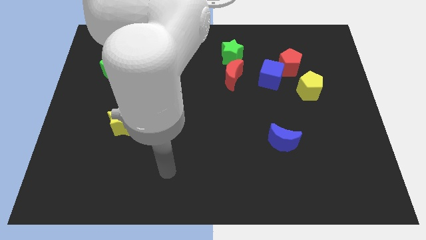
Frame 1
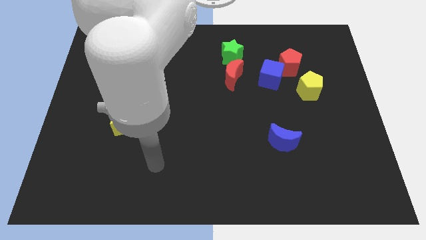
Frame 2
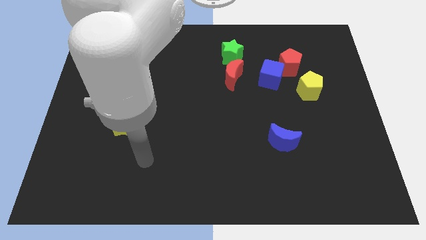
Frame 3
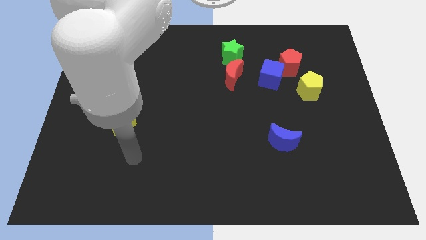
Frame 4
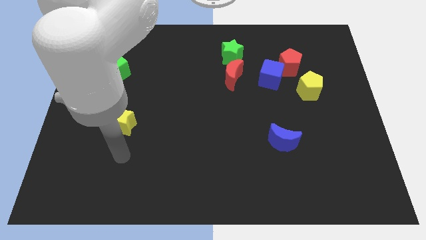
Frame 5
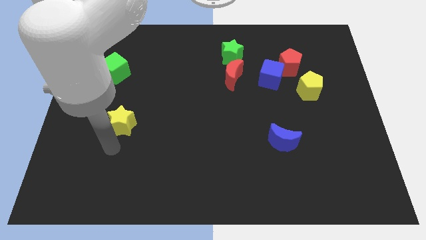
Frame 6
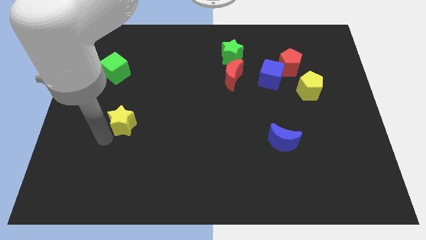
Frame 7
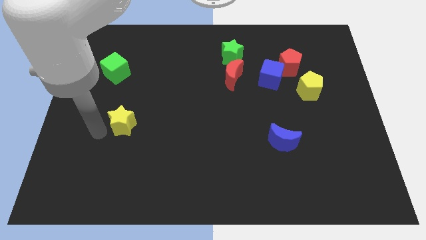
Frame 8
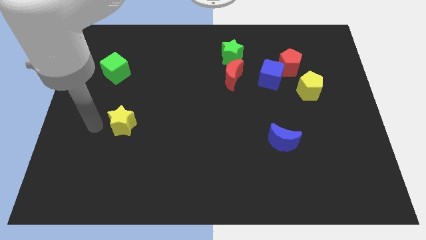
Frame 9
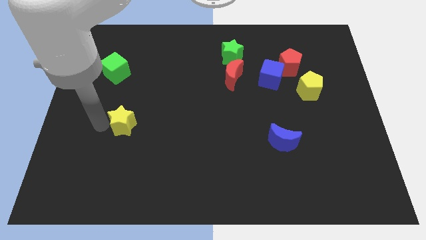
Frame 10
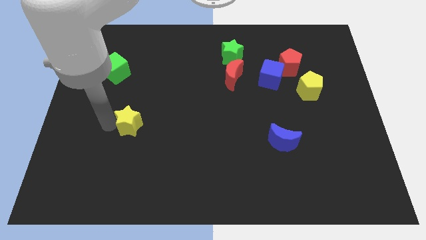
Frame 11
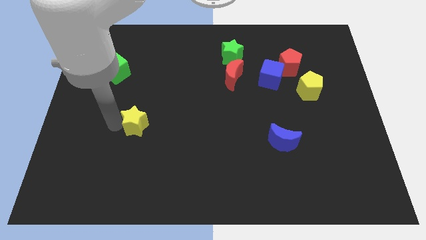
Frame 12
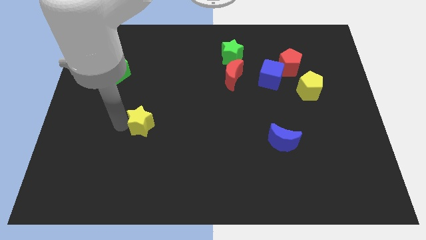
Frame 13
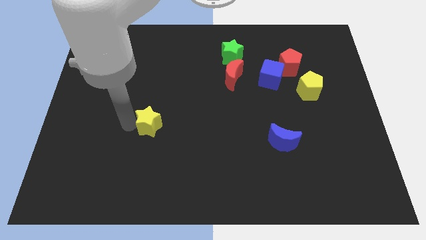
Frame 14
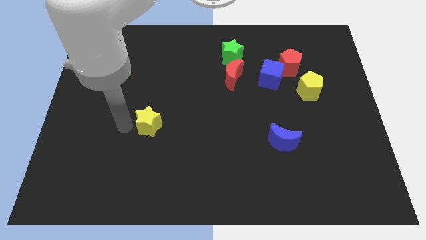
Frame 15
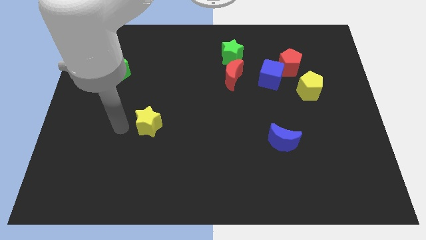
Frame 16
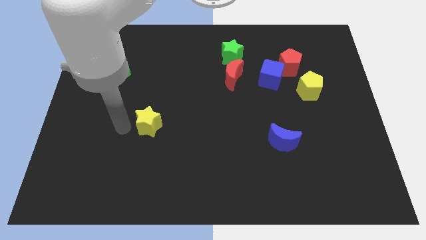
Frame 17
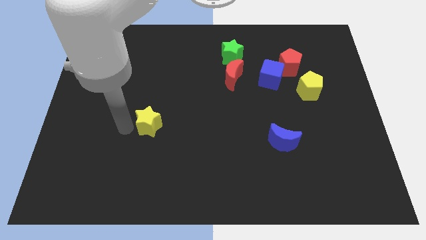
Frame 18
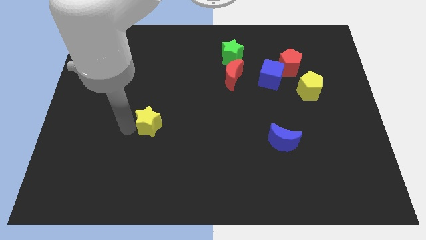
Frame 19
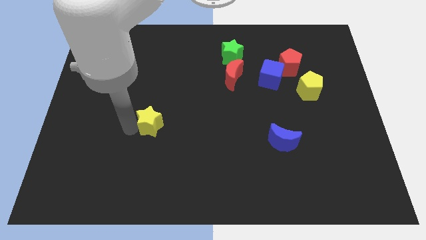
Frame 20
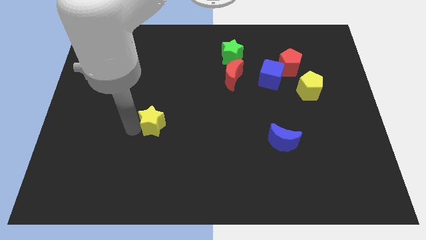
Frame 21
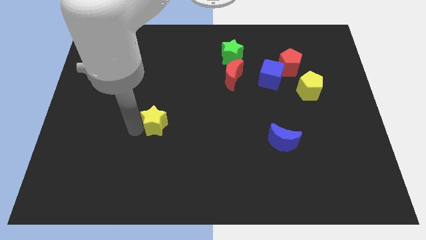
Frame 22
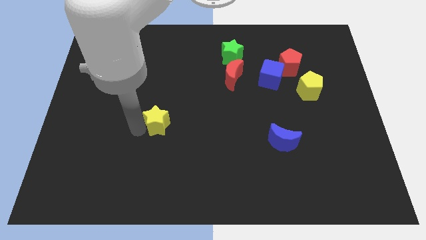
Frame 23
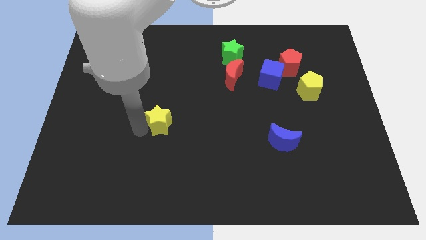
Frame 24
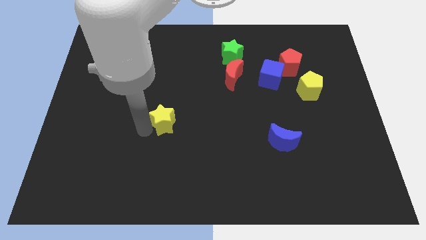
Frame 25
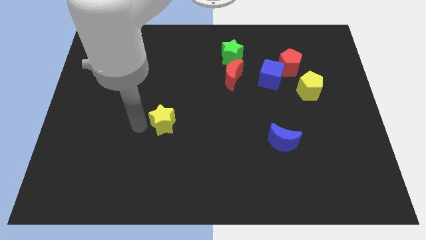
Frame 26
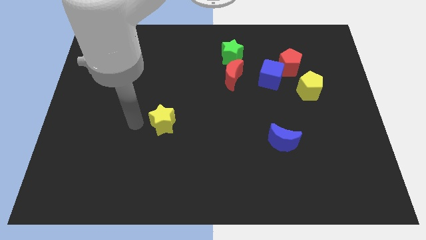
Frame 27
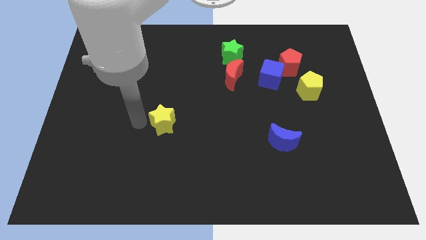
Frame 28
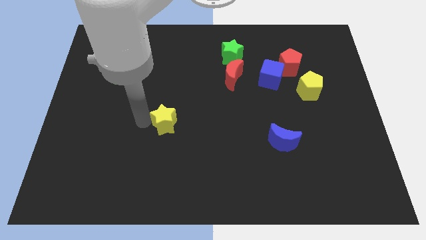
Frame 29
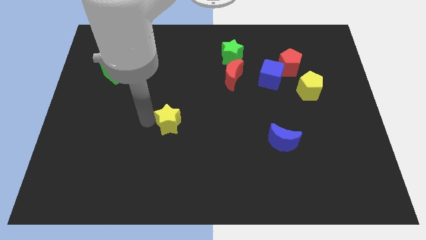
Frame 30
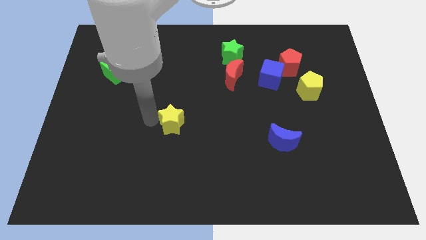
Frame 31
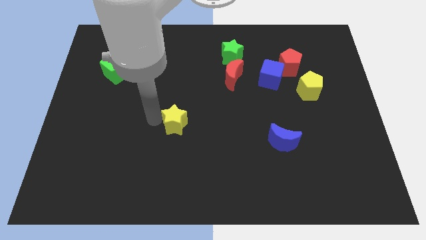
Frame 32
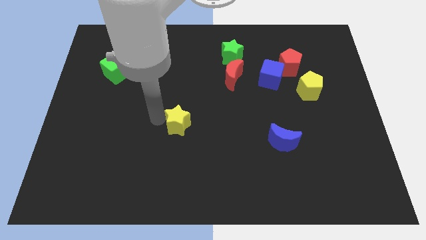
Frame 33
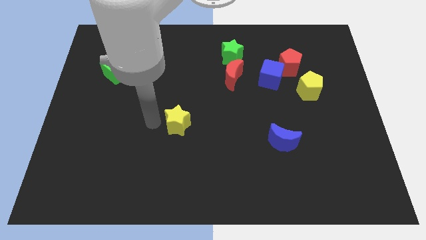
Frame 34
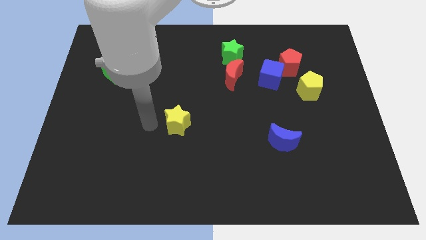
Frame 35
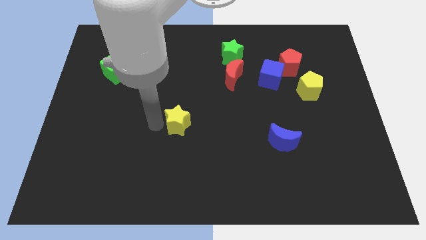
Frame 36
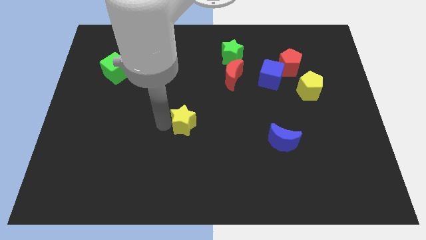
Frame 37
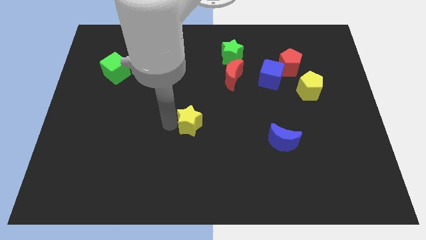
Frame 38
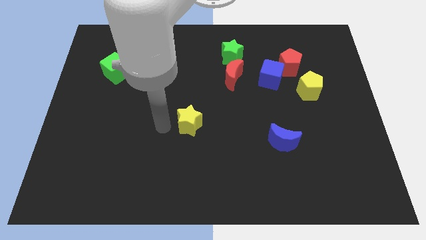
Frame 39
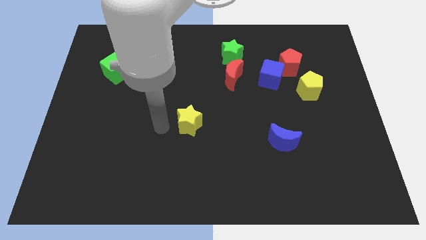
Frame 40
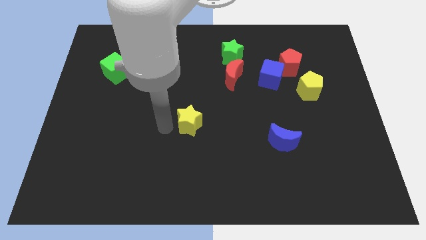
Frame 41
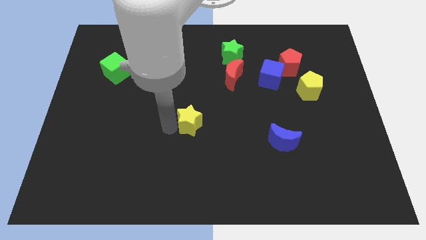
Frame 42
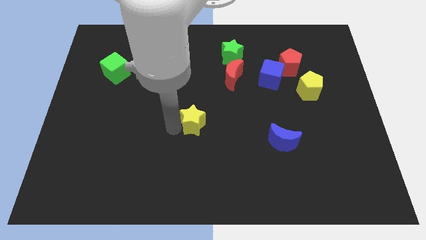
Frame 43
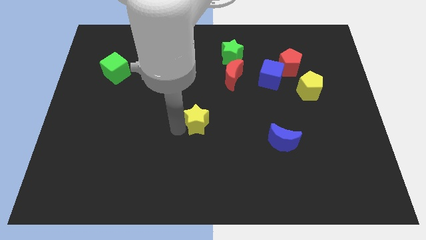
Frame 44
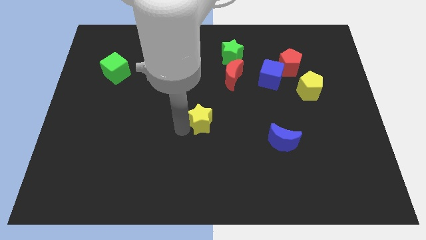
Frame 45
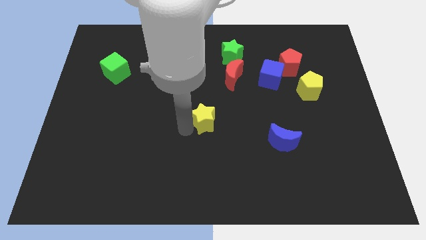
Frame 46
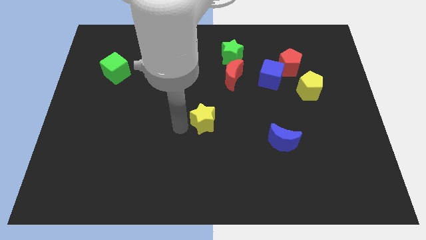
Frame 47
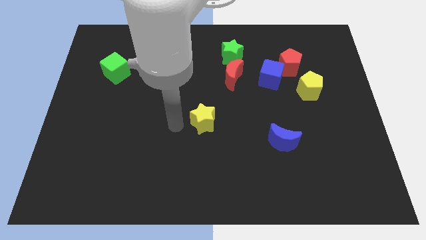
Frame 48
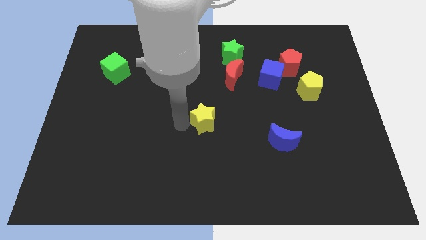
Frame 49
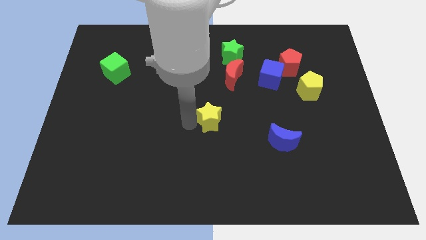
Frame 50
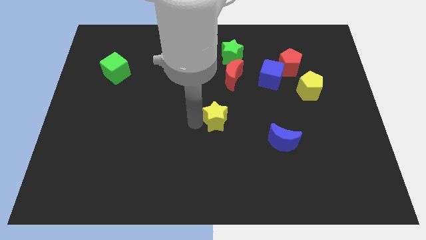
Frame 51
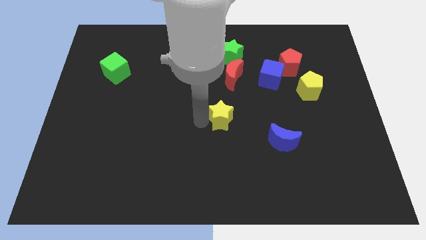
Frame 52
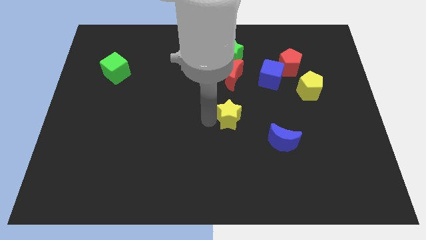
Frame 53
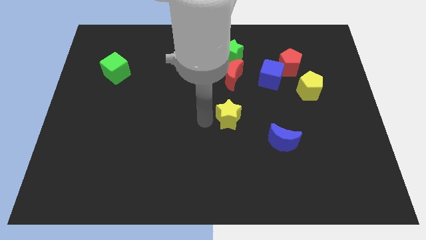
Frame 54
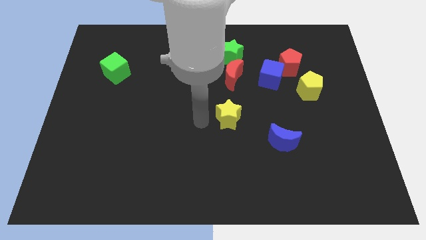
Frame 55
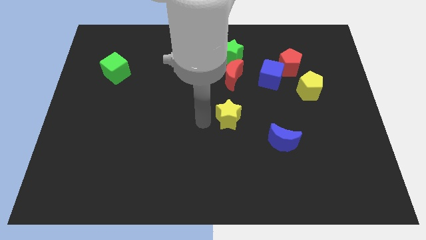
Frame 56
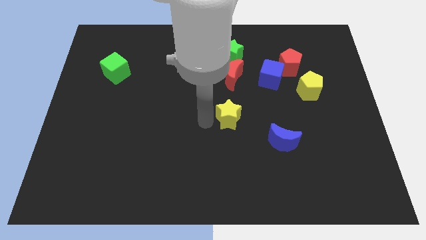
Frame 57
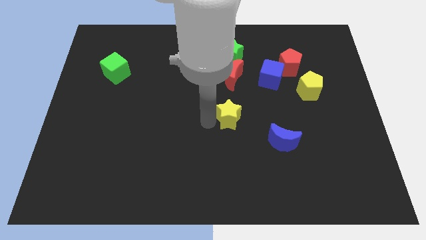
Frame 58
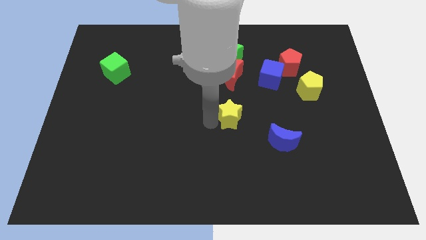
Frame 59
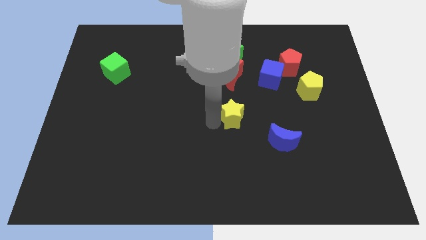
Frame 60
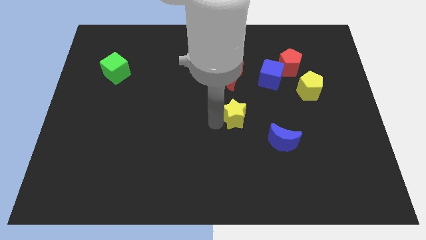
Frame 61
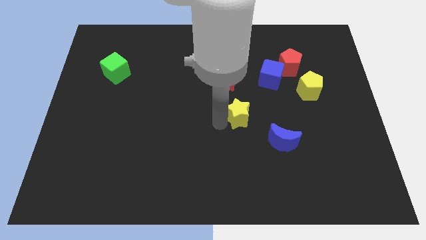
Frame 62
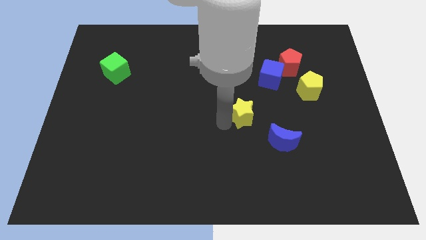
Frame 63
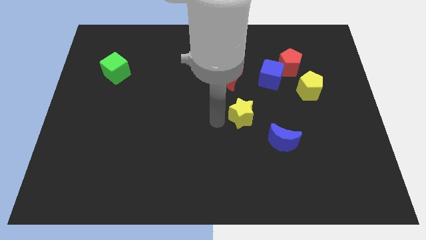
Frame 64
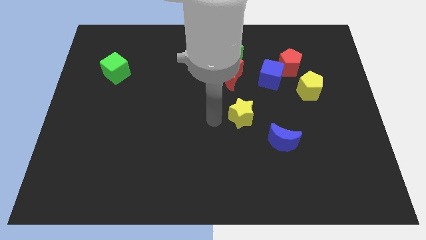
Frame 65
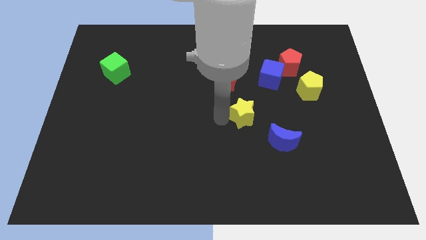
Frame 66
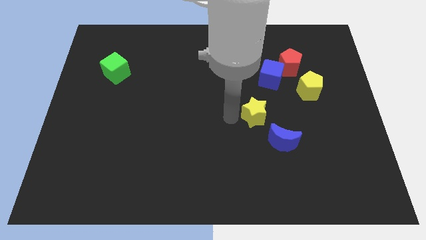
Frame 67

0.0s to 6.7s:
move the yellow star to the bottom side of the blue cube

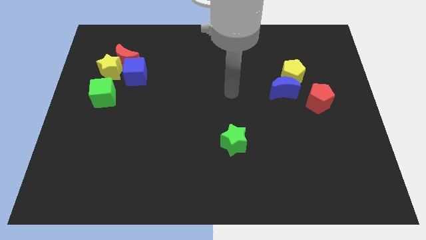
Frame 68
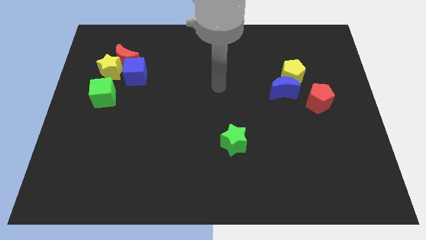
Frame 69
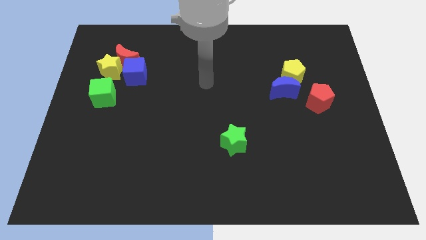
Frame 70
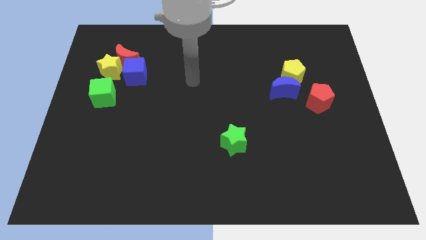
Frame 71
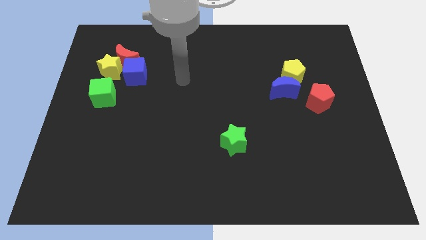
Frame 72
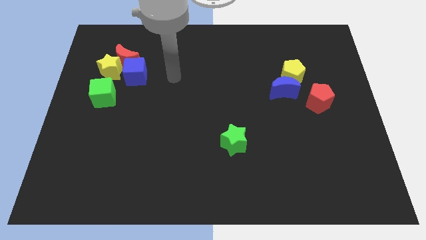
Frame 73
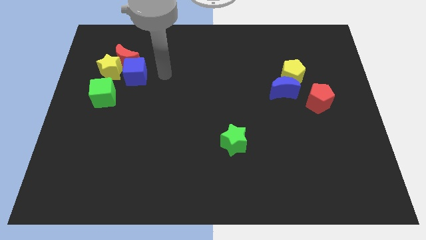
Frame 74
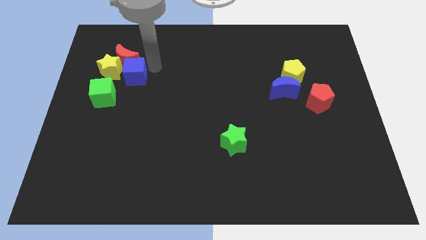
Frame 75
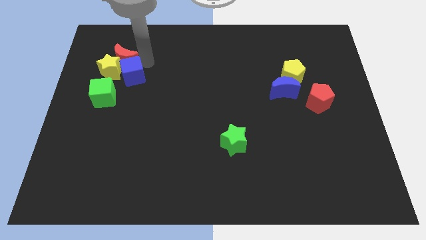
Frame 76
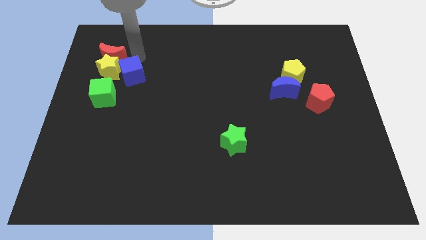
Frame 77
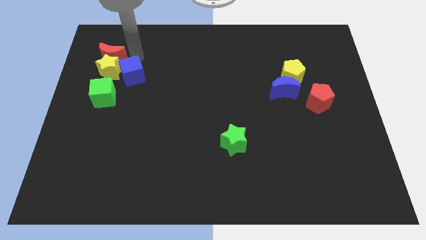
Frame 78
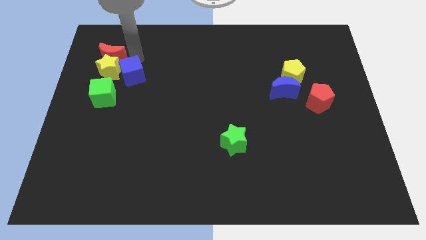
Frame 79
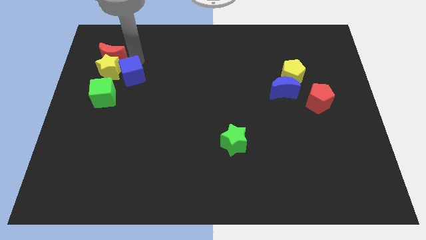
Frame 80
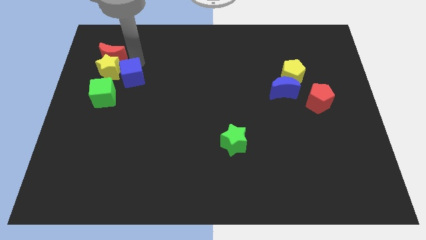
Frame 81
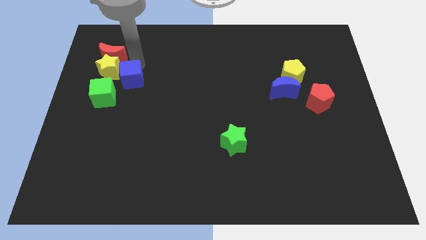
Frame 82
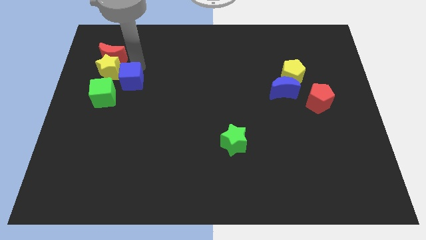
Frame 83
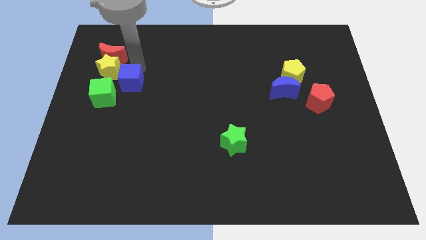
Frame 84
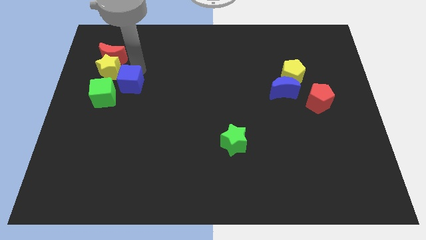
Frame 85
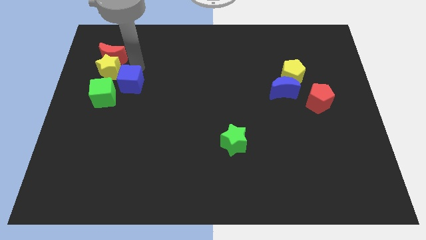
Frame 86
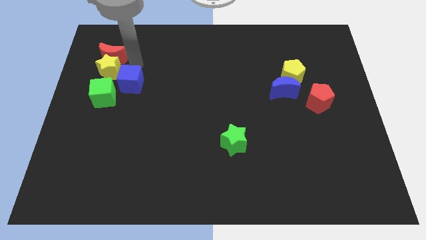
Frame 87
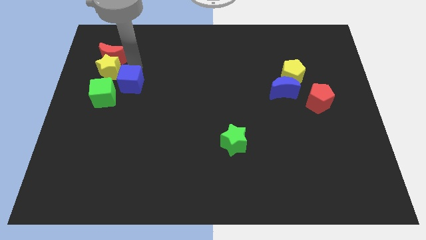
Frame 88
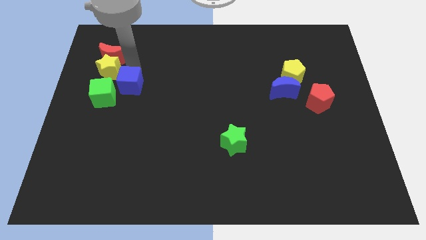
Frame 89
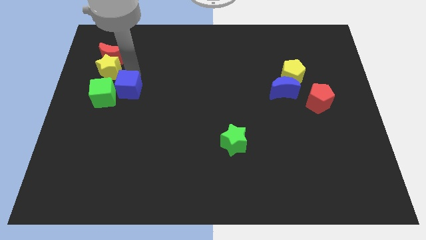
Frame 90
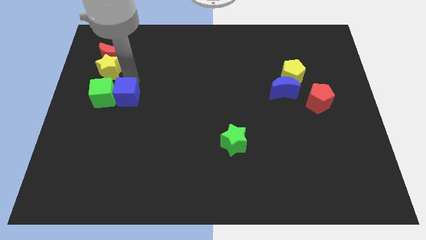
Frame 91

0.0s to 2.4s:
push the blue cube diagonally down and to the right of the green cube
